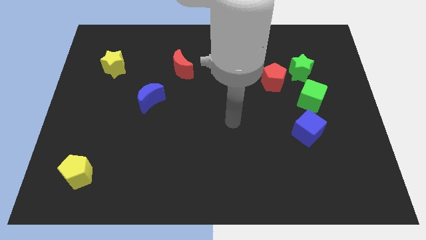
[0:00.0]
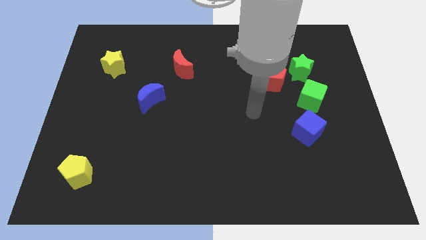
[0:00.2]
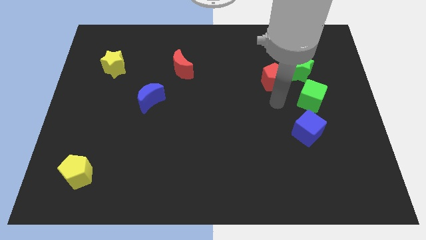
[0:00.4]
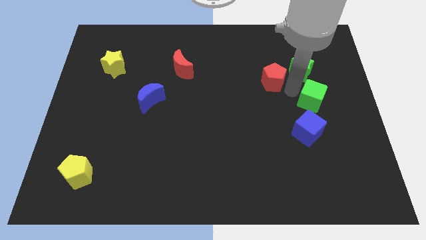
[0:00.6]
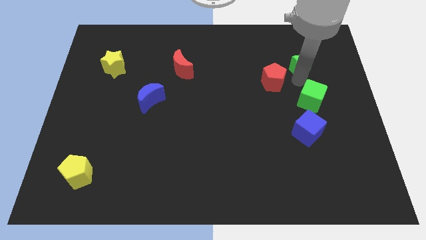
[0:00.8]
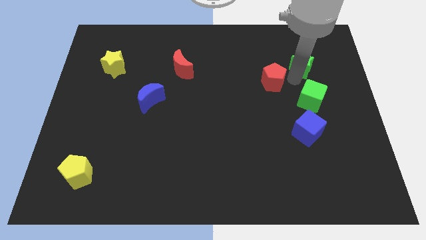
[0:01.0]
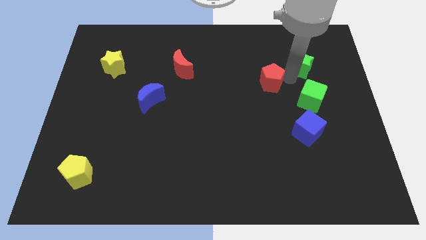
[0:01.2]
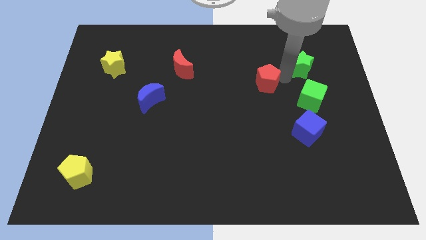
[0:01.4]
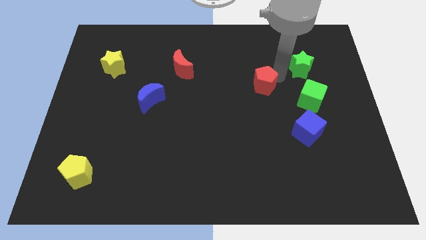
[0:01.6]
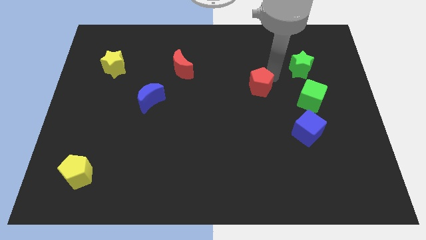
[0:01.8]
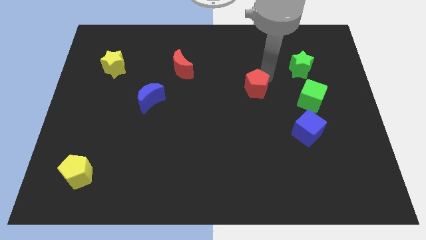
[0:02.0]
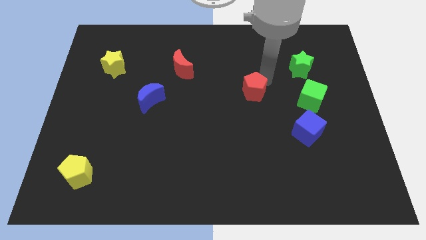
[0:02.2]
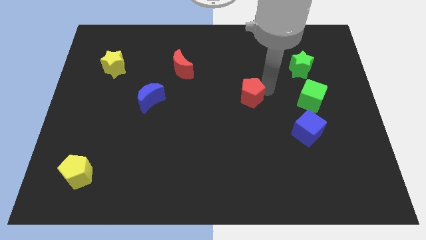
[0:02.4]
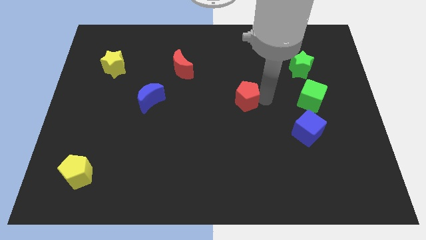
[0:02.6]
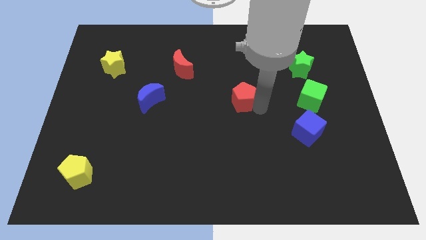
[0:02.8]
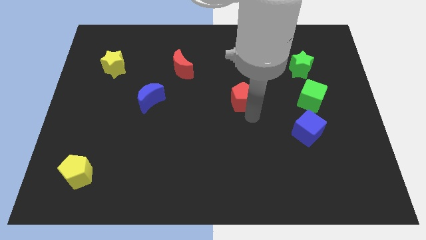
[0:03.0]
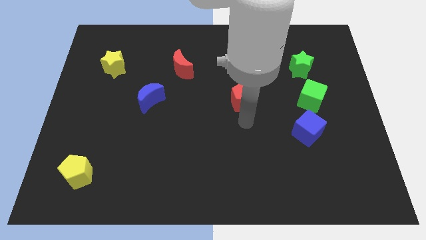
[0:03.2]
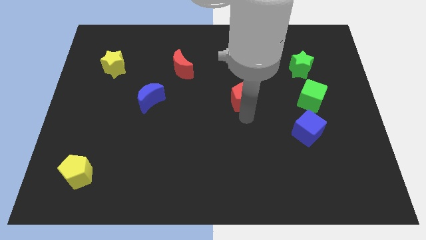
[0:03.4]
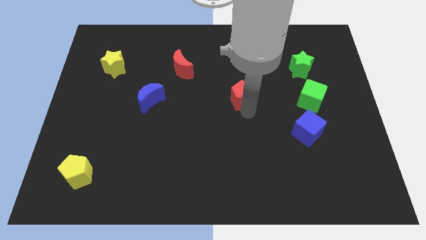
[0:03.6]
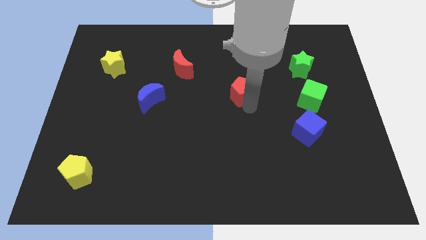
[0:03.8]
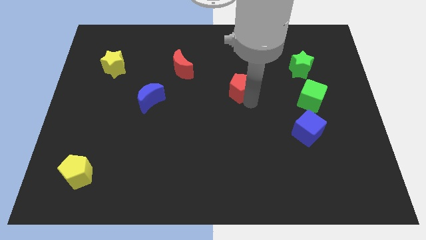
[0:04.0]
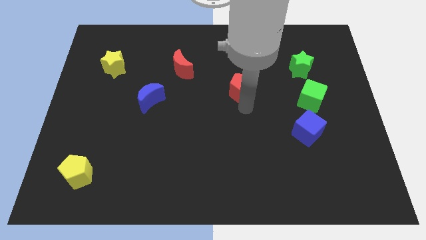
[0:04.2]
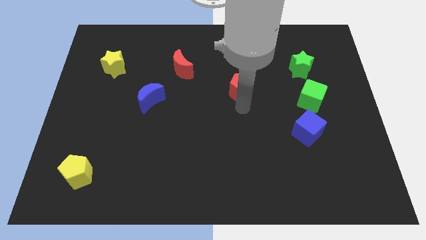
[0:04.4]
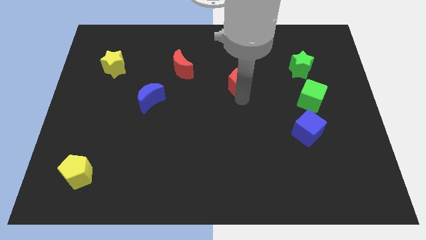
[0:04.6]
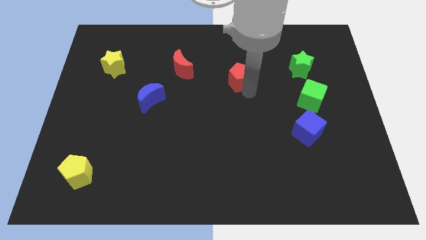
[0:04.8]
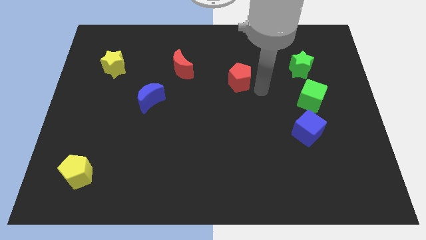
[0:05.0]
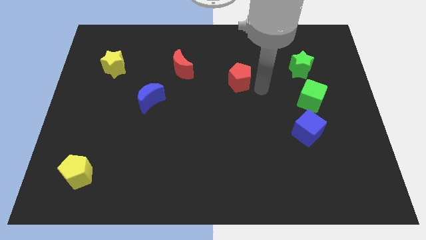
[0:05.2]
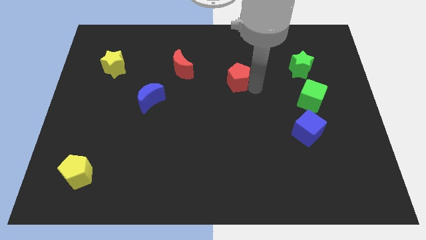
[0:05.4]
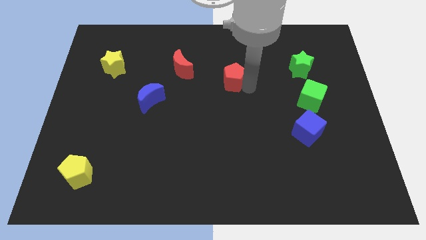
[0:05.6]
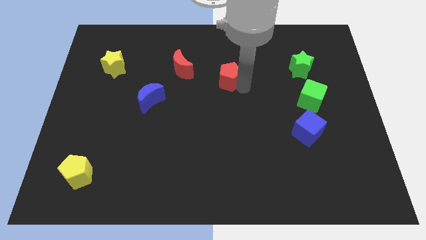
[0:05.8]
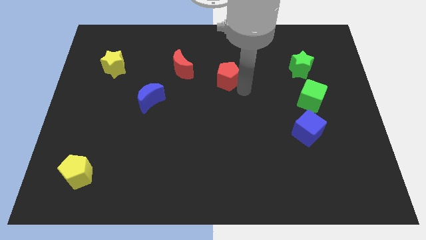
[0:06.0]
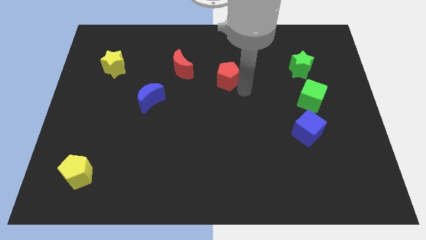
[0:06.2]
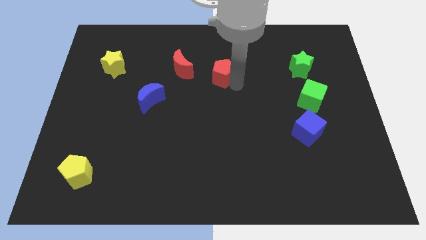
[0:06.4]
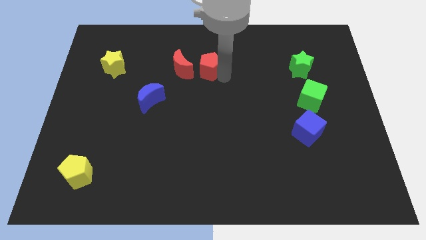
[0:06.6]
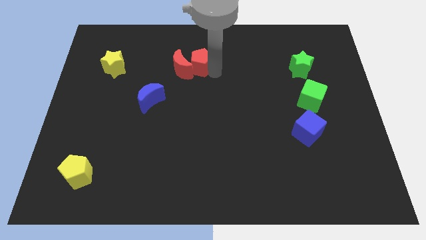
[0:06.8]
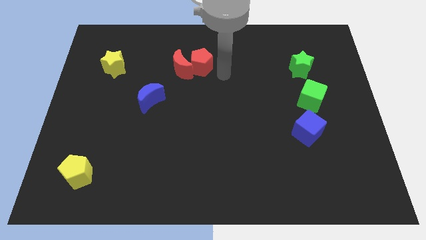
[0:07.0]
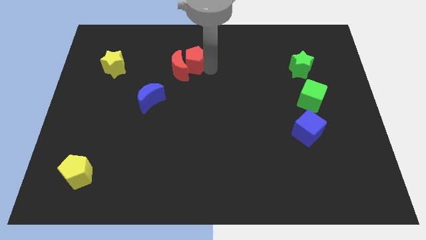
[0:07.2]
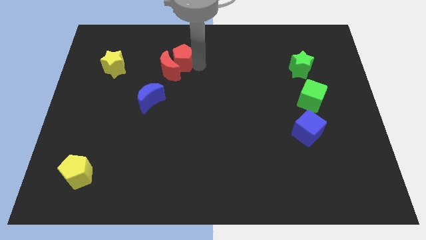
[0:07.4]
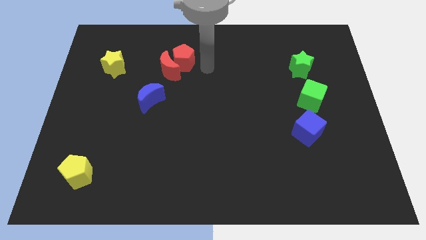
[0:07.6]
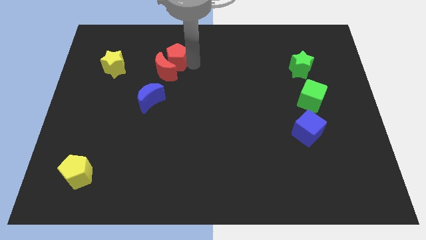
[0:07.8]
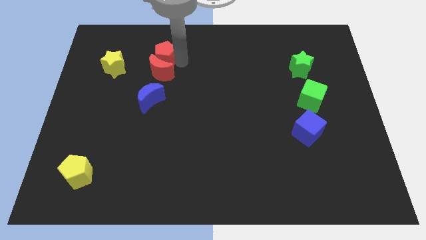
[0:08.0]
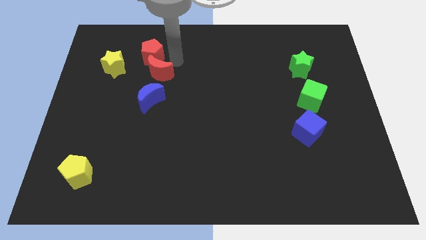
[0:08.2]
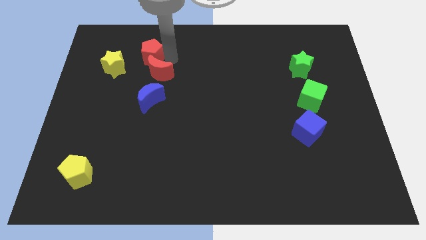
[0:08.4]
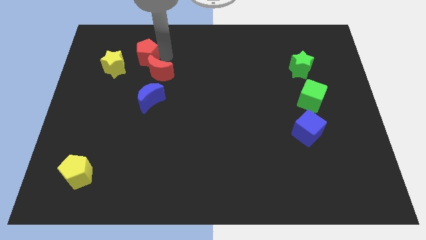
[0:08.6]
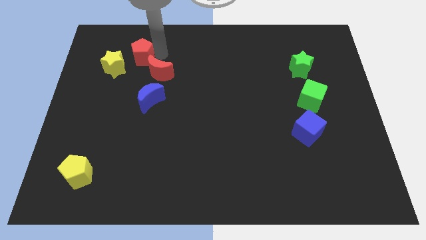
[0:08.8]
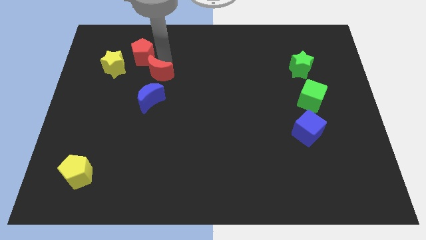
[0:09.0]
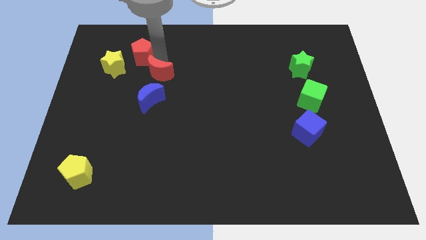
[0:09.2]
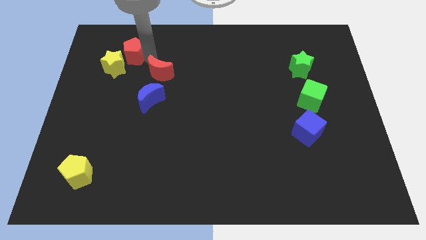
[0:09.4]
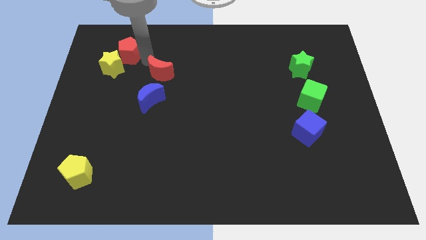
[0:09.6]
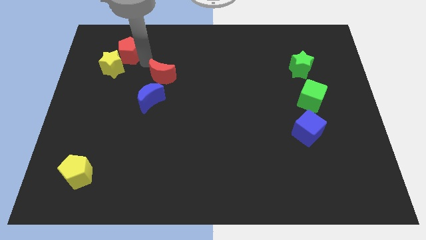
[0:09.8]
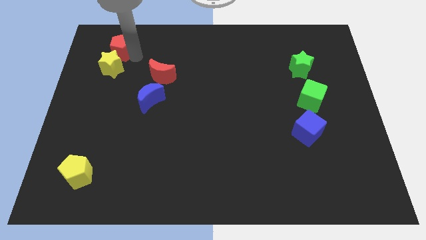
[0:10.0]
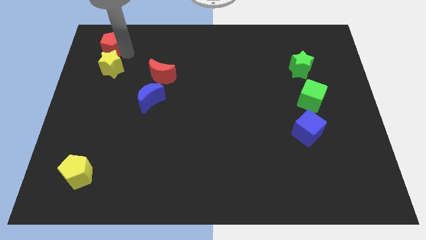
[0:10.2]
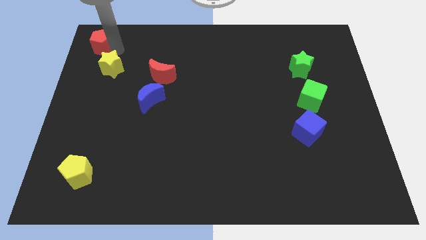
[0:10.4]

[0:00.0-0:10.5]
put the red pentagon to the top left corner

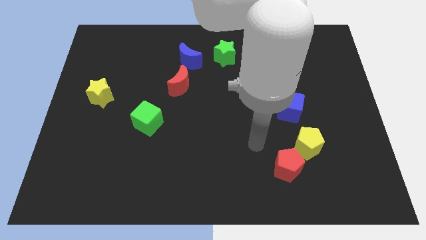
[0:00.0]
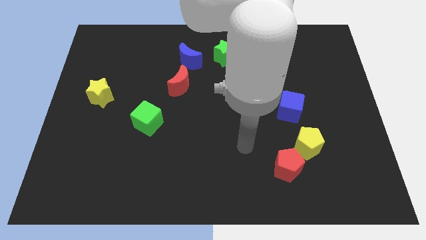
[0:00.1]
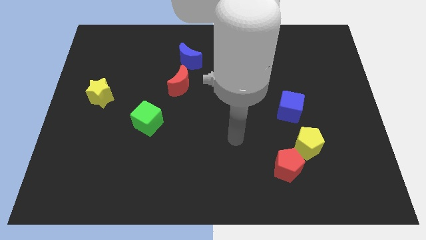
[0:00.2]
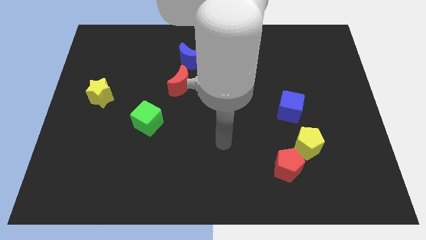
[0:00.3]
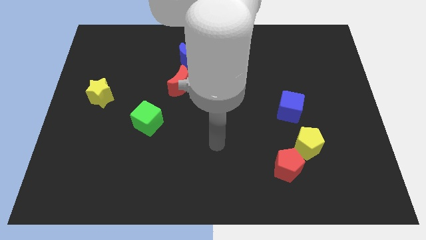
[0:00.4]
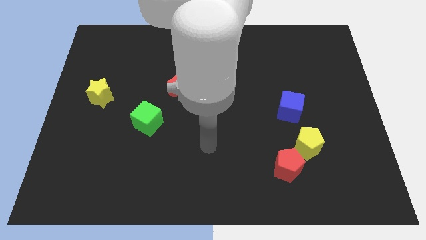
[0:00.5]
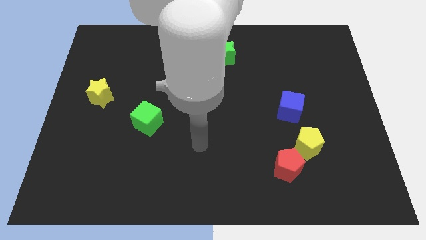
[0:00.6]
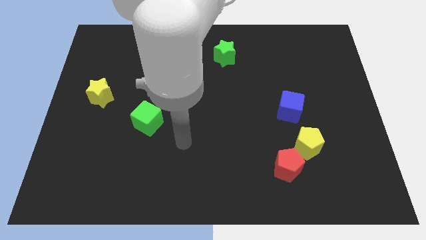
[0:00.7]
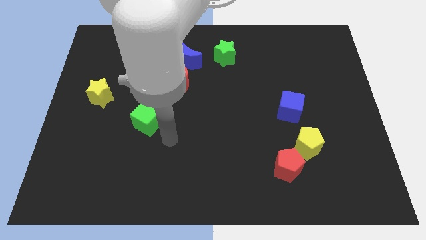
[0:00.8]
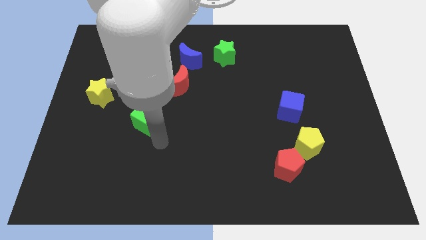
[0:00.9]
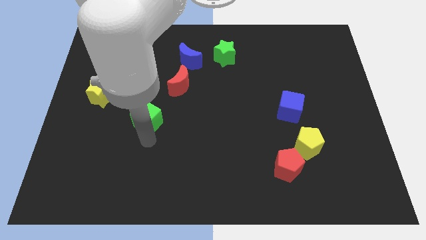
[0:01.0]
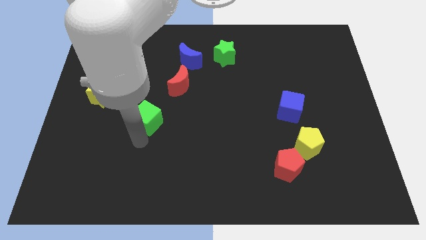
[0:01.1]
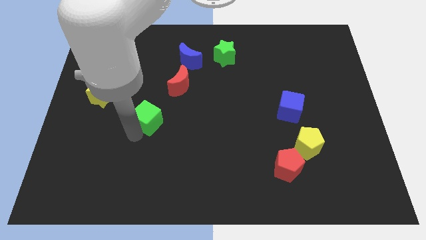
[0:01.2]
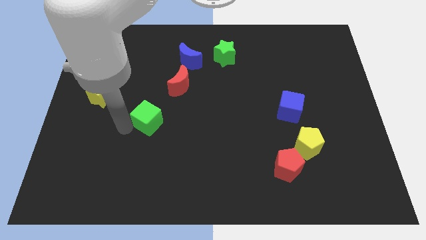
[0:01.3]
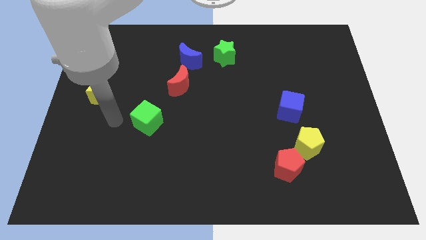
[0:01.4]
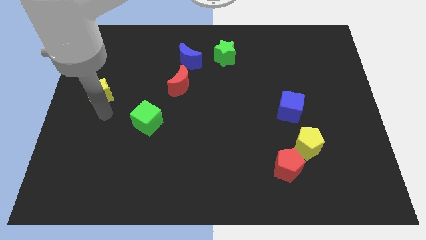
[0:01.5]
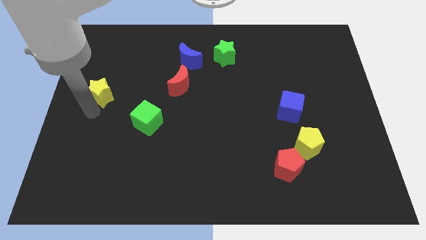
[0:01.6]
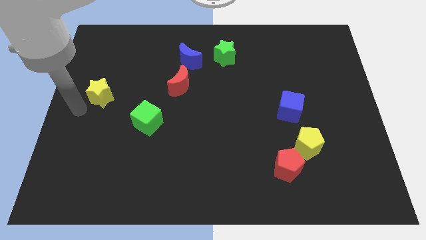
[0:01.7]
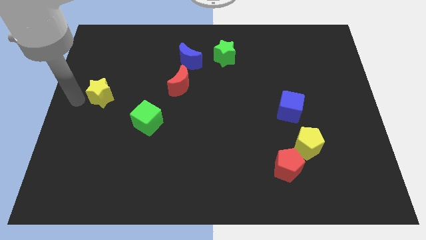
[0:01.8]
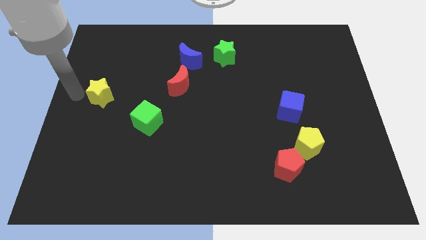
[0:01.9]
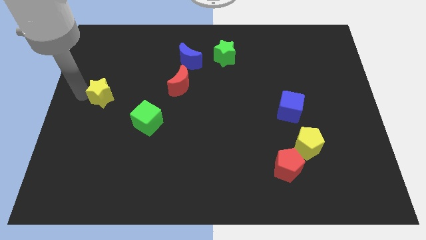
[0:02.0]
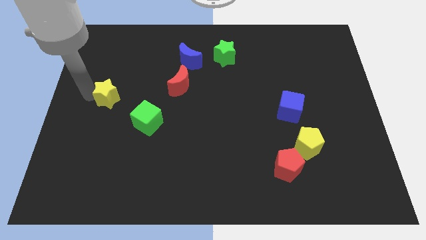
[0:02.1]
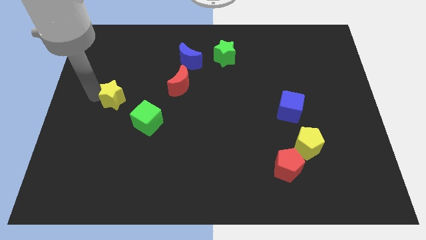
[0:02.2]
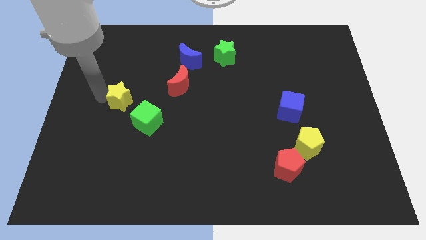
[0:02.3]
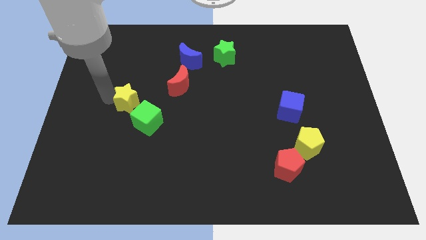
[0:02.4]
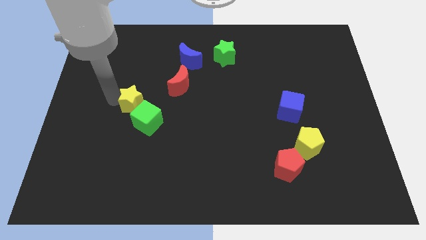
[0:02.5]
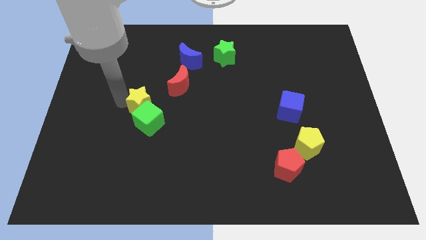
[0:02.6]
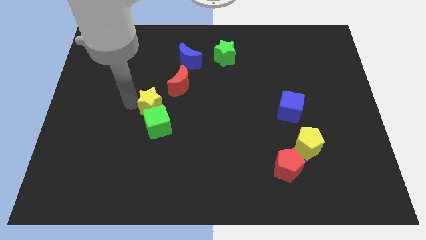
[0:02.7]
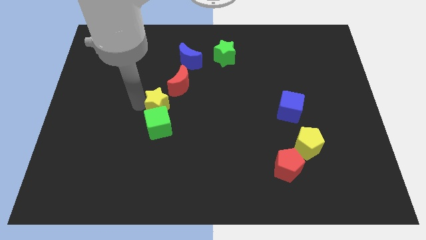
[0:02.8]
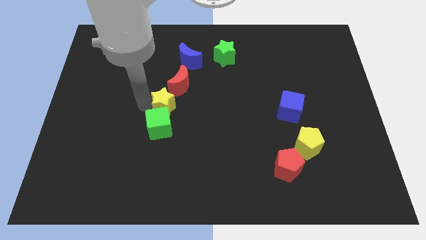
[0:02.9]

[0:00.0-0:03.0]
push the yellow star to the center
